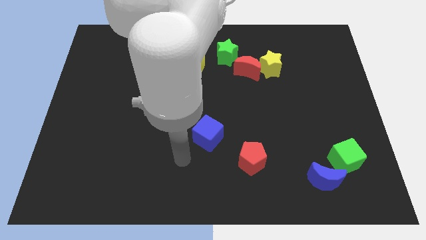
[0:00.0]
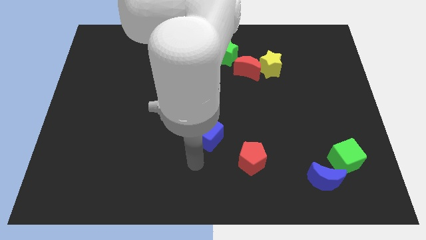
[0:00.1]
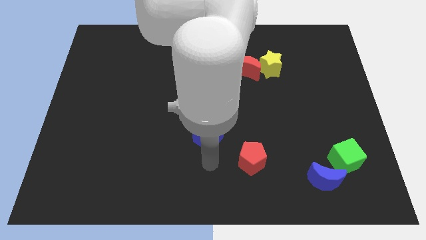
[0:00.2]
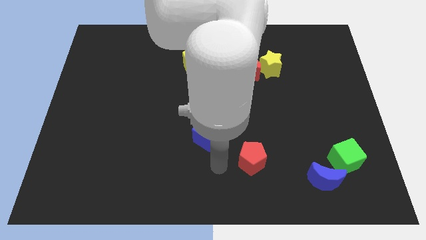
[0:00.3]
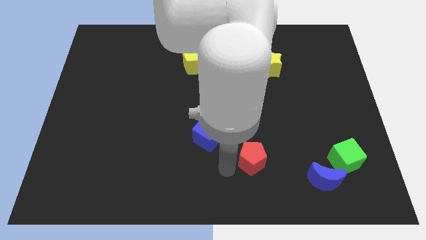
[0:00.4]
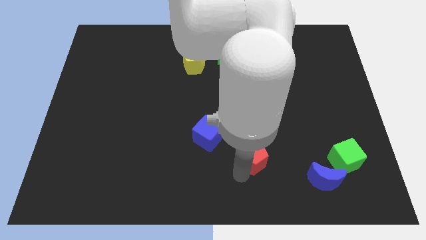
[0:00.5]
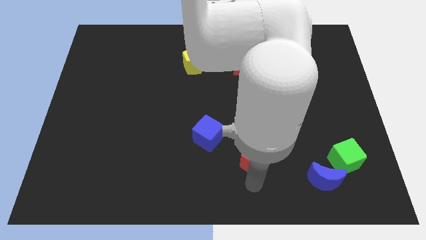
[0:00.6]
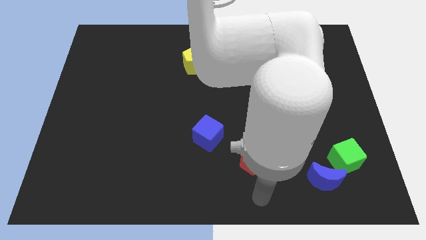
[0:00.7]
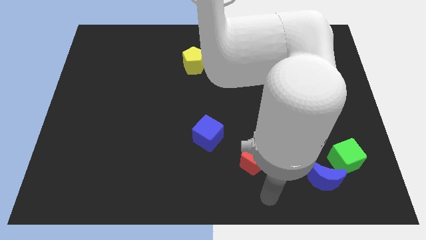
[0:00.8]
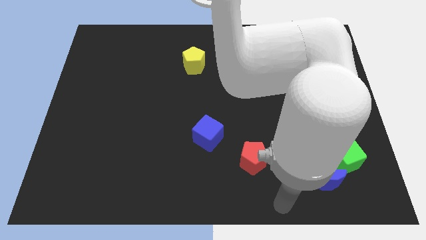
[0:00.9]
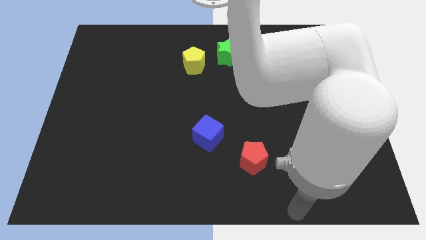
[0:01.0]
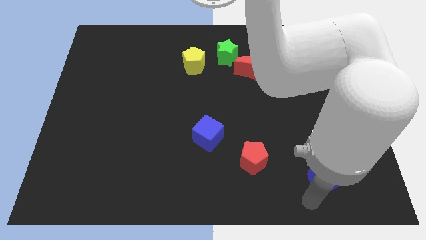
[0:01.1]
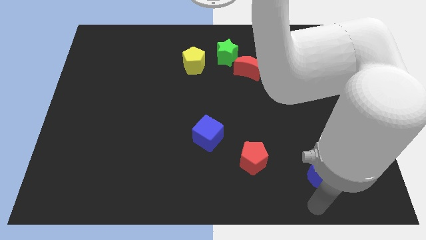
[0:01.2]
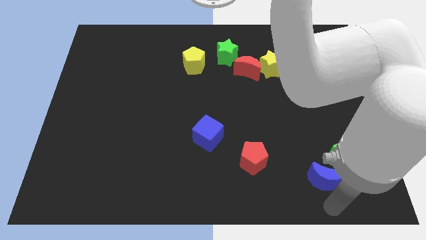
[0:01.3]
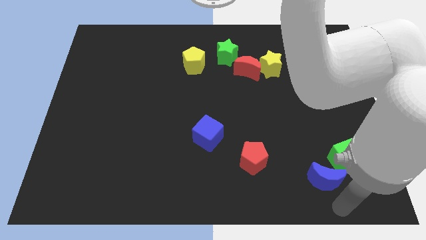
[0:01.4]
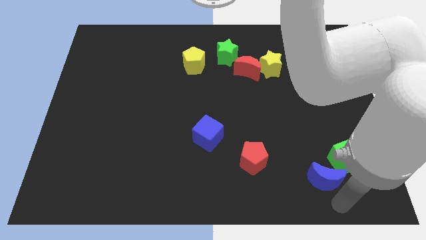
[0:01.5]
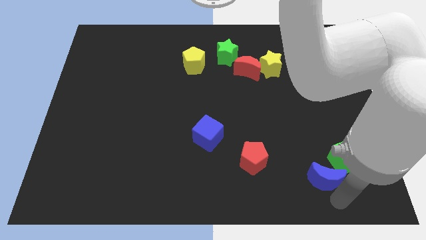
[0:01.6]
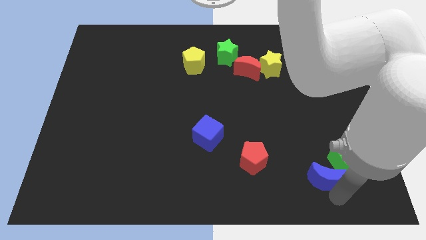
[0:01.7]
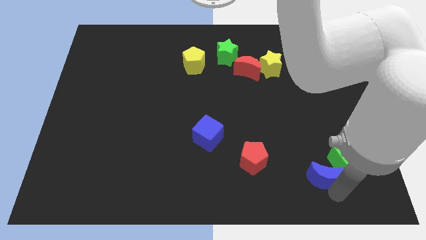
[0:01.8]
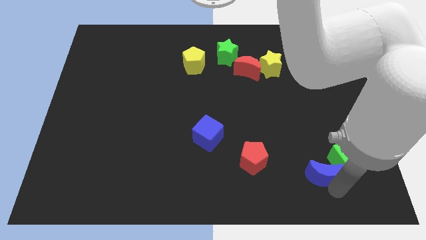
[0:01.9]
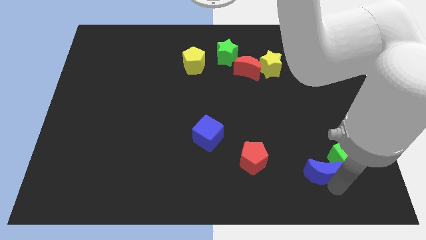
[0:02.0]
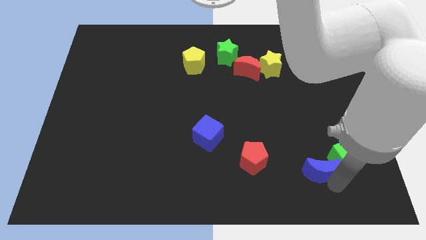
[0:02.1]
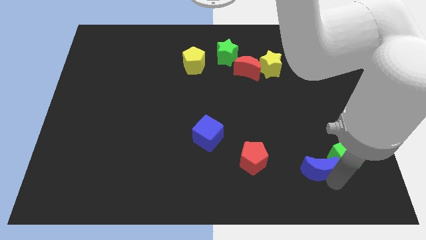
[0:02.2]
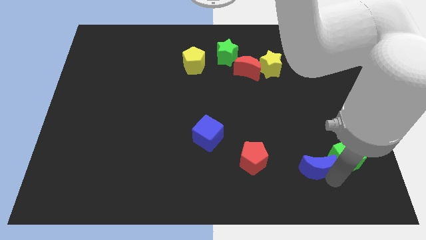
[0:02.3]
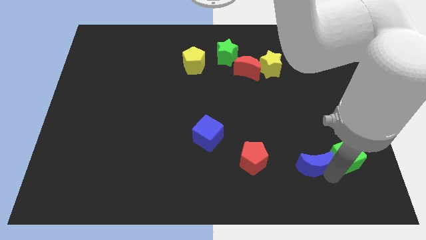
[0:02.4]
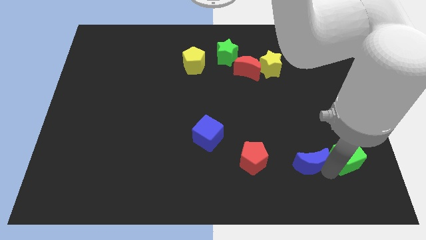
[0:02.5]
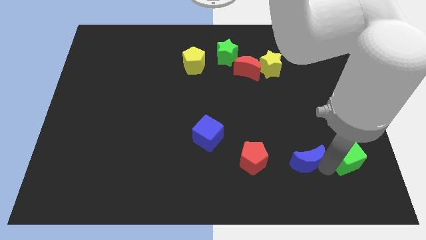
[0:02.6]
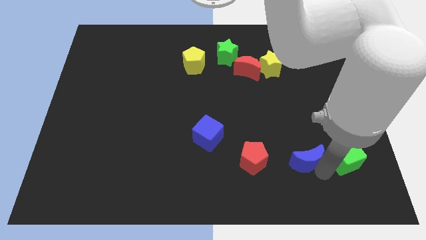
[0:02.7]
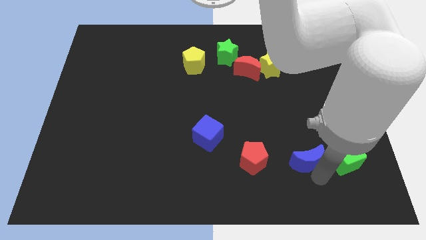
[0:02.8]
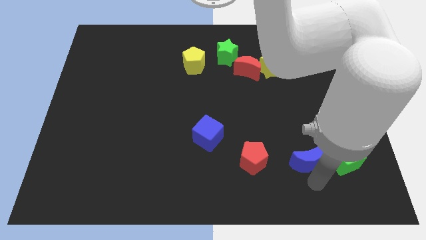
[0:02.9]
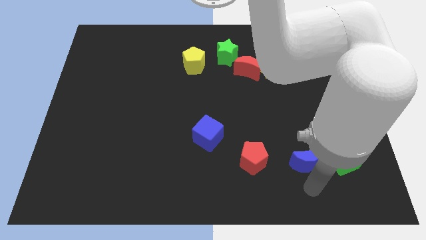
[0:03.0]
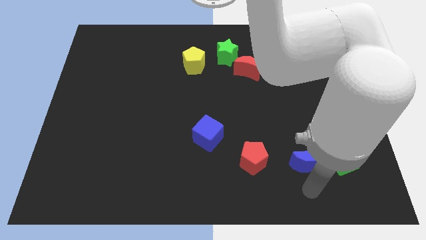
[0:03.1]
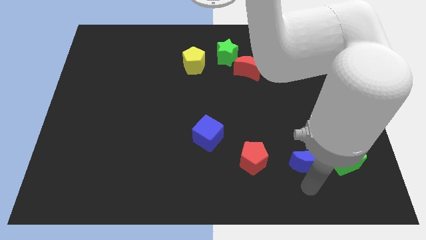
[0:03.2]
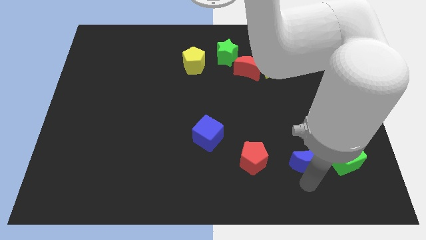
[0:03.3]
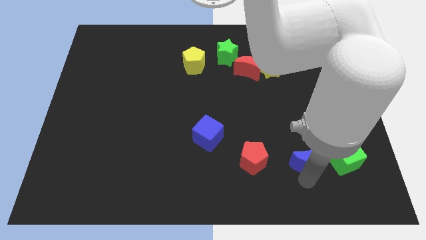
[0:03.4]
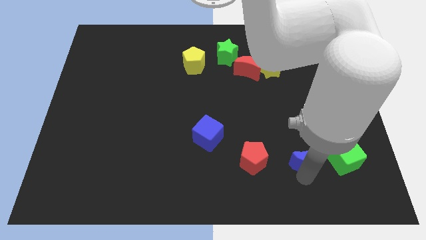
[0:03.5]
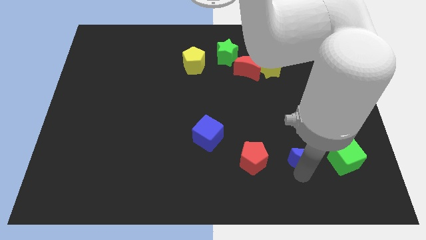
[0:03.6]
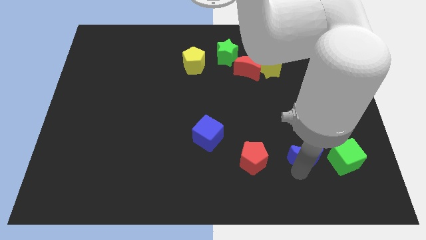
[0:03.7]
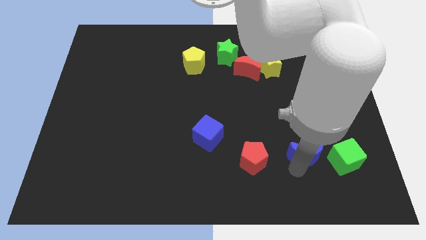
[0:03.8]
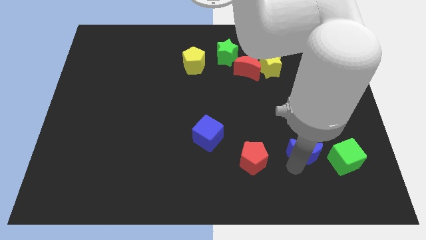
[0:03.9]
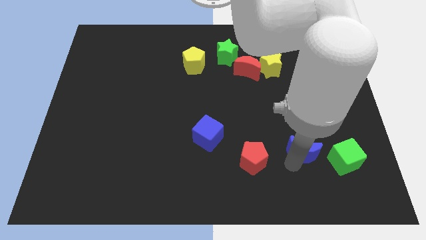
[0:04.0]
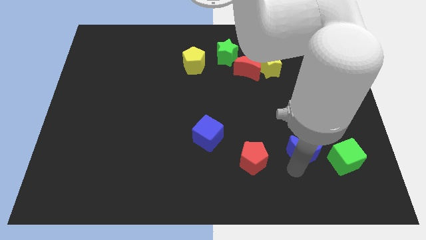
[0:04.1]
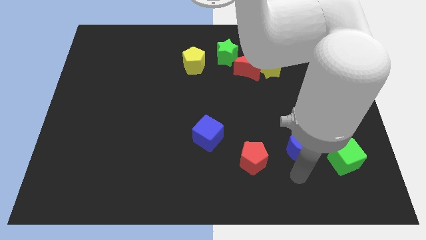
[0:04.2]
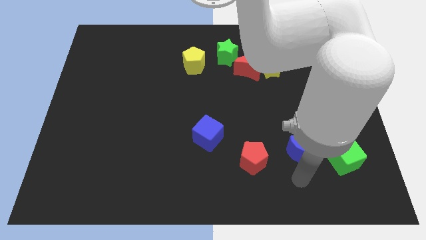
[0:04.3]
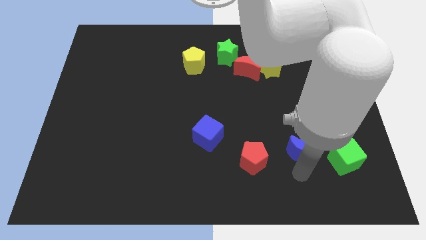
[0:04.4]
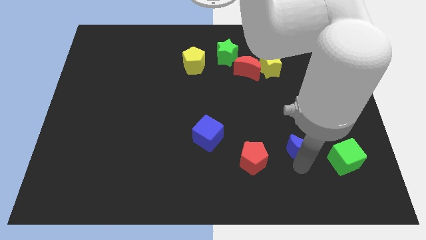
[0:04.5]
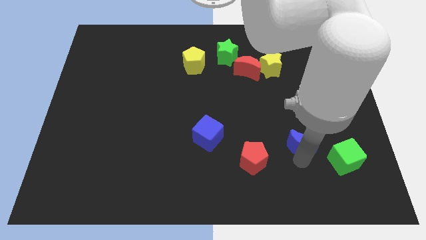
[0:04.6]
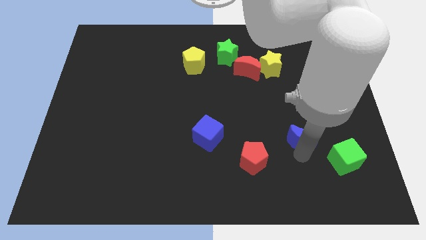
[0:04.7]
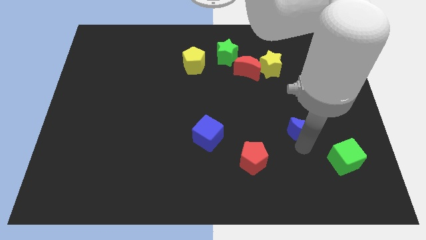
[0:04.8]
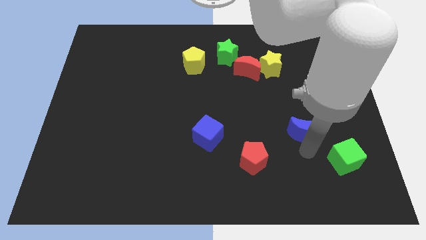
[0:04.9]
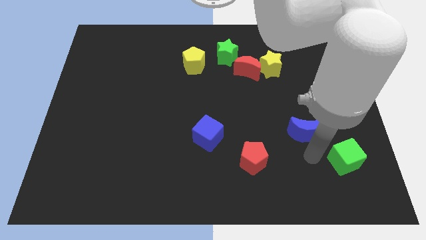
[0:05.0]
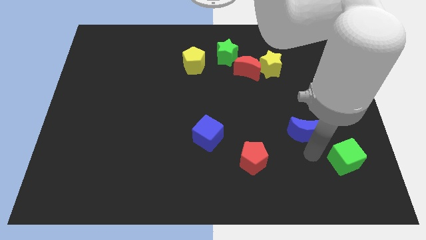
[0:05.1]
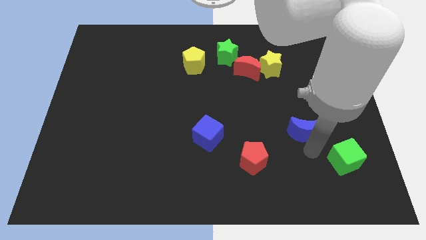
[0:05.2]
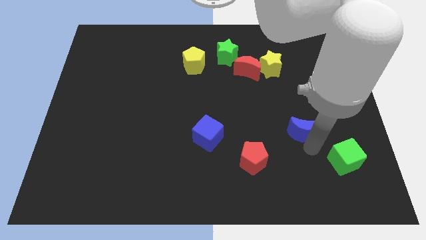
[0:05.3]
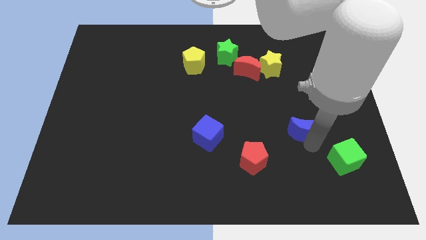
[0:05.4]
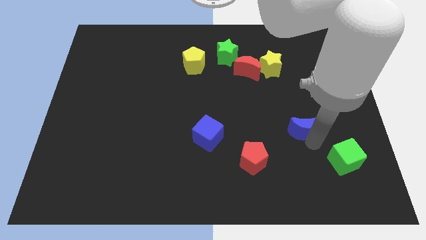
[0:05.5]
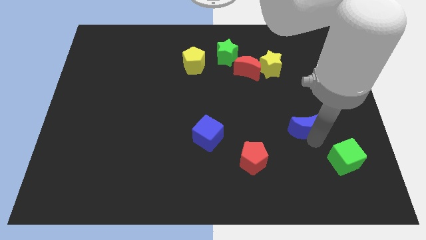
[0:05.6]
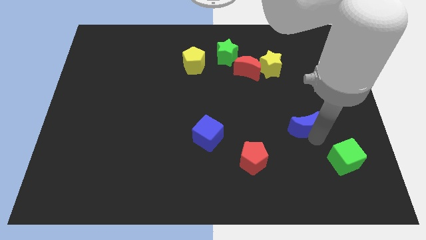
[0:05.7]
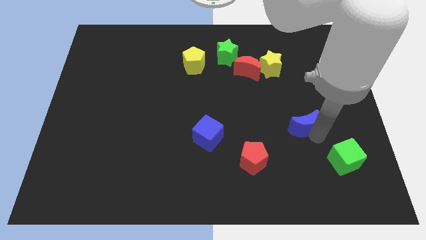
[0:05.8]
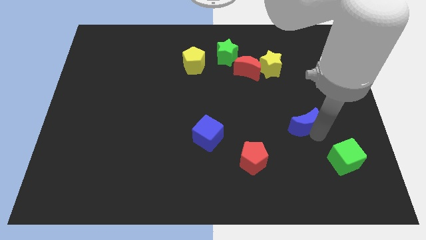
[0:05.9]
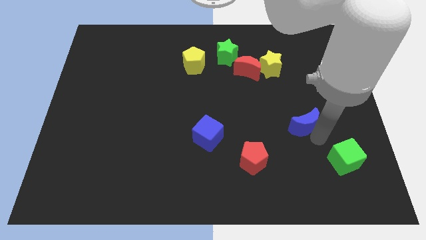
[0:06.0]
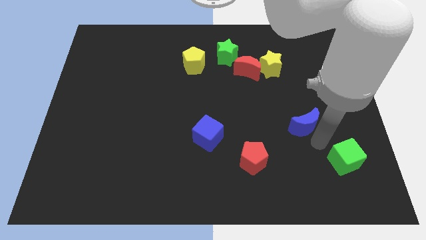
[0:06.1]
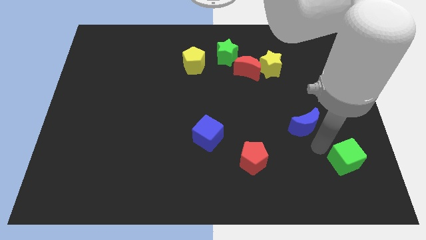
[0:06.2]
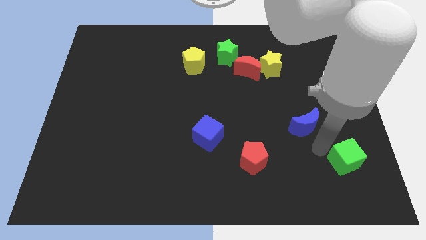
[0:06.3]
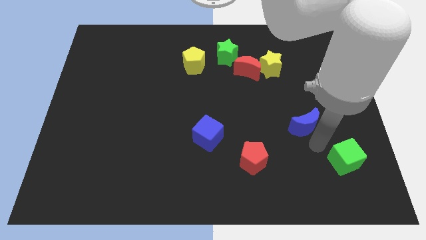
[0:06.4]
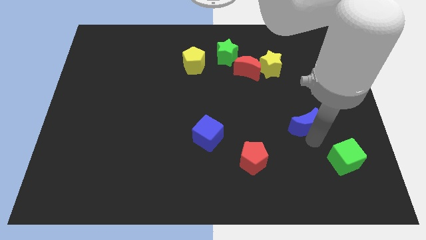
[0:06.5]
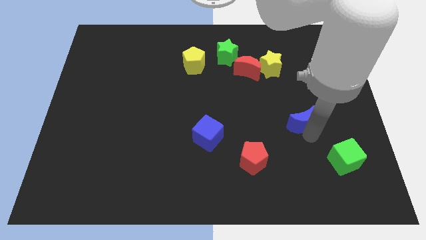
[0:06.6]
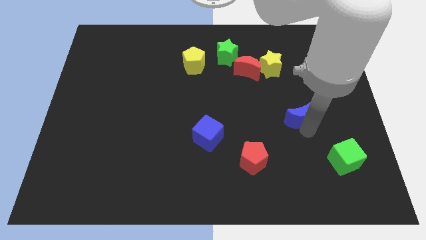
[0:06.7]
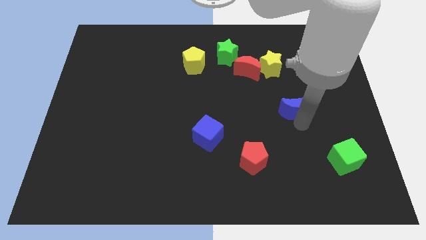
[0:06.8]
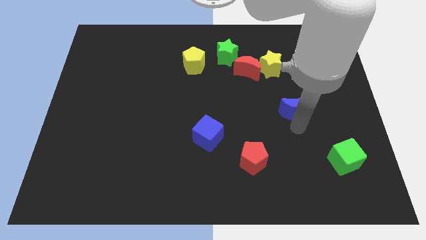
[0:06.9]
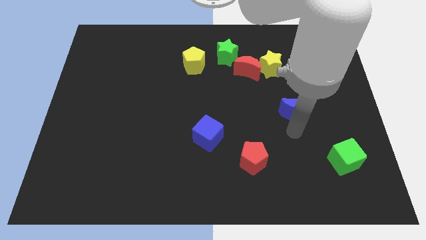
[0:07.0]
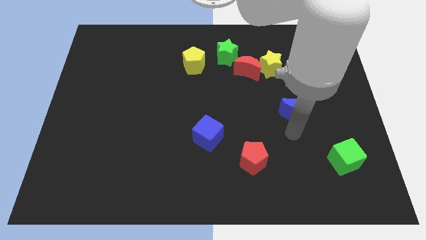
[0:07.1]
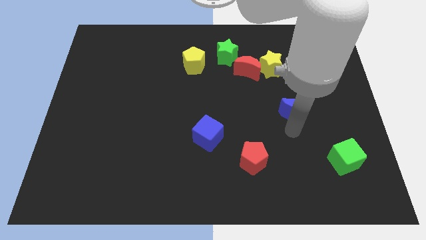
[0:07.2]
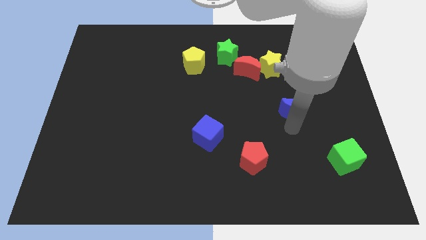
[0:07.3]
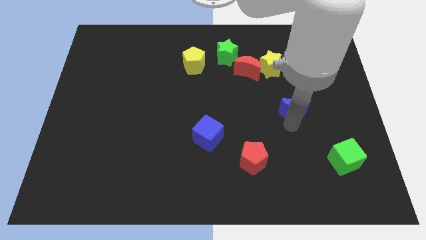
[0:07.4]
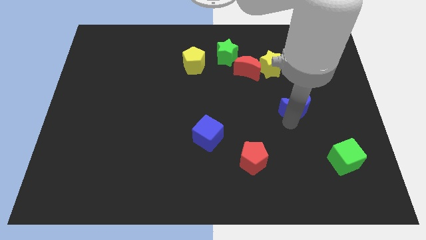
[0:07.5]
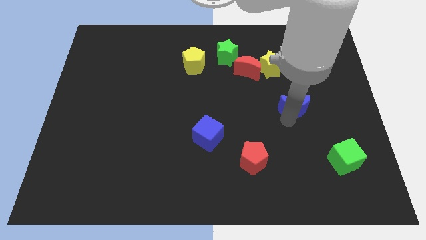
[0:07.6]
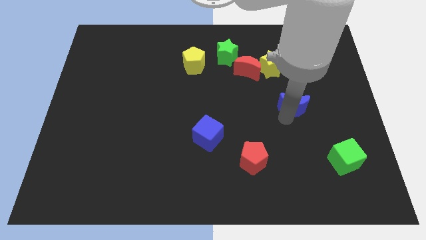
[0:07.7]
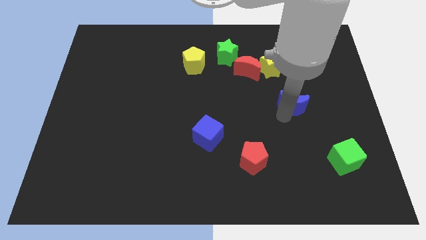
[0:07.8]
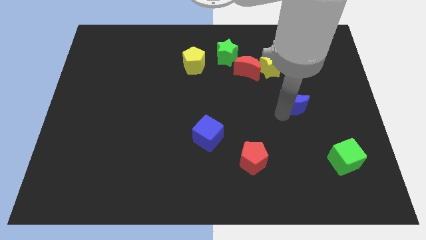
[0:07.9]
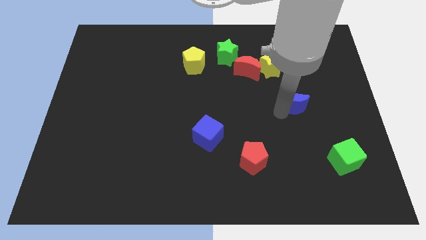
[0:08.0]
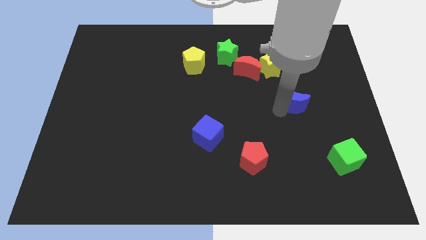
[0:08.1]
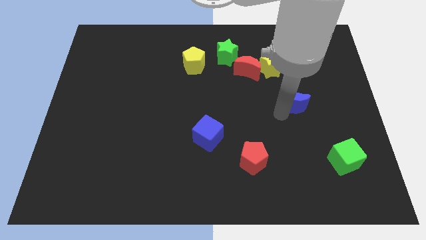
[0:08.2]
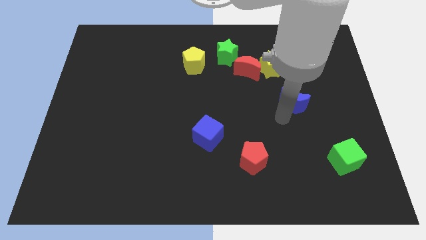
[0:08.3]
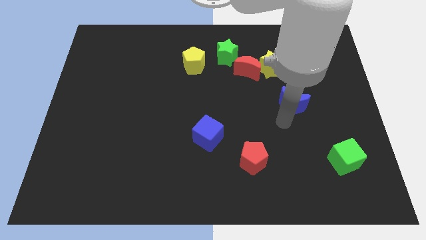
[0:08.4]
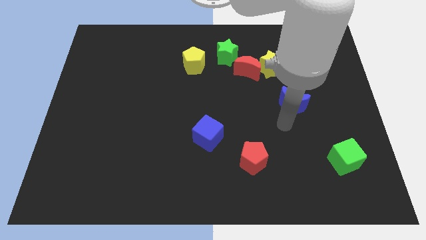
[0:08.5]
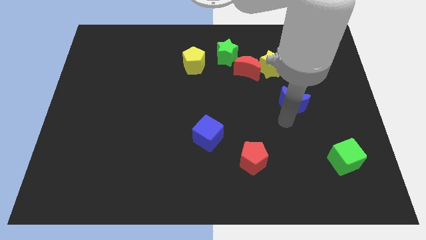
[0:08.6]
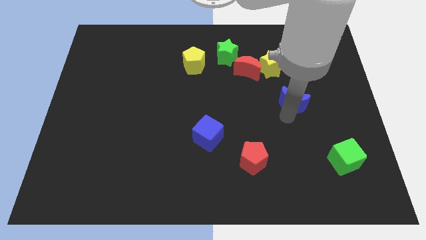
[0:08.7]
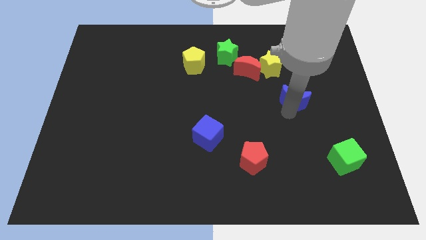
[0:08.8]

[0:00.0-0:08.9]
slide the blue moon up

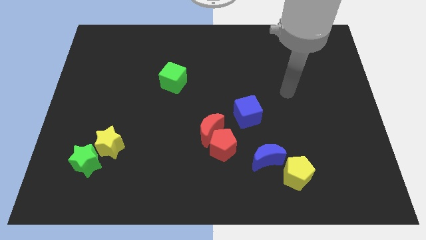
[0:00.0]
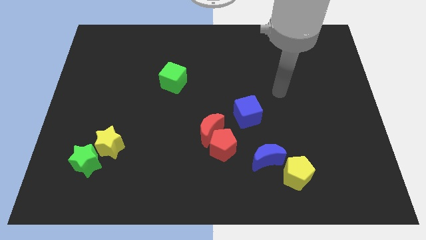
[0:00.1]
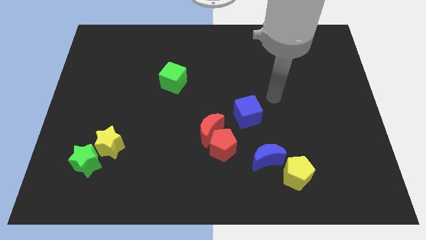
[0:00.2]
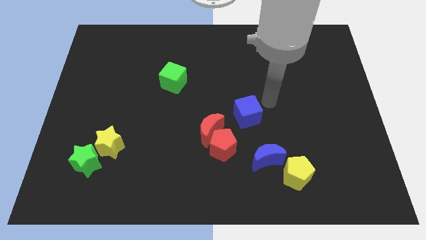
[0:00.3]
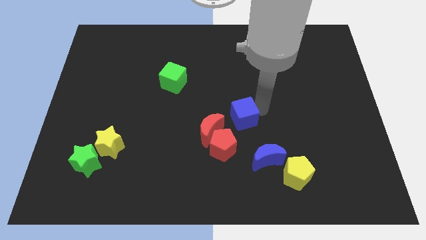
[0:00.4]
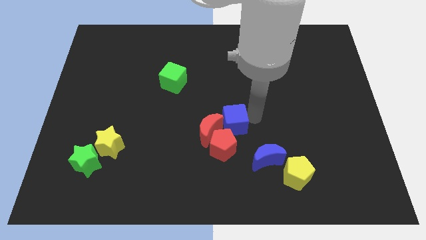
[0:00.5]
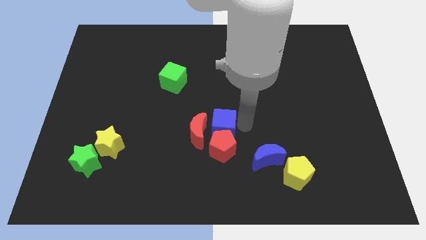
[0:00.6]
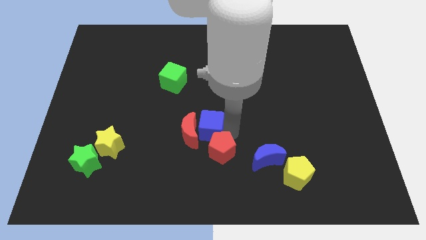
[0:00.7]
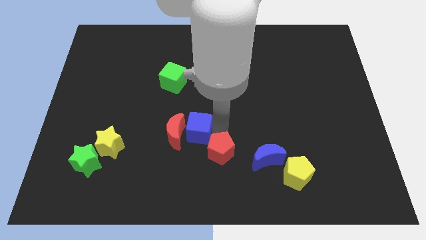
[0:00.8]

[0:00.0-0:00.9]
move the red moon slightly to the left
